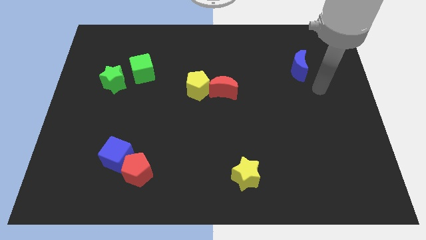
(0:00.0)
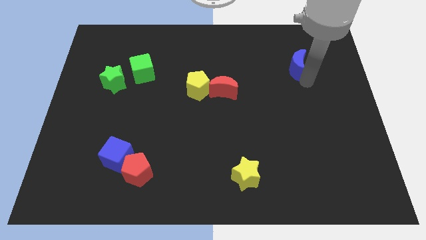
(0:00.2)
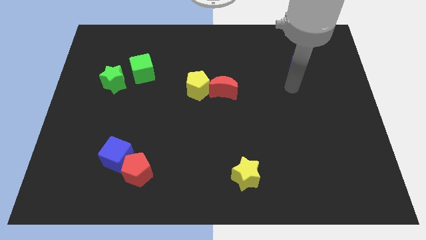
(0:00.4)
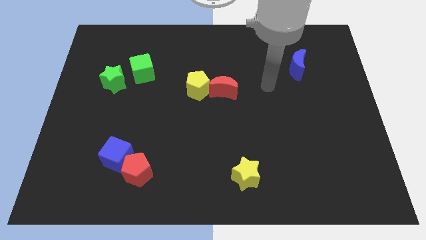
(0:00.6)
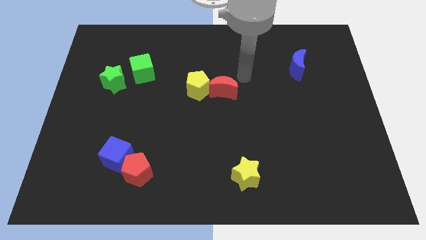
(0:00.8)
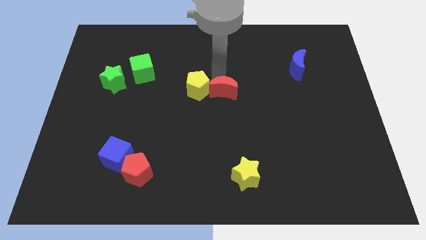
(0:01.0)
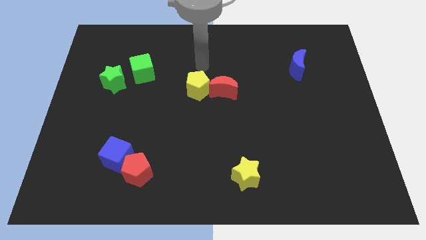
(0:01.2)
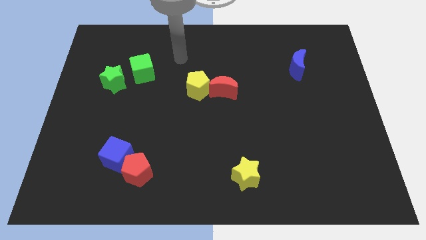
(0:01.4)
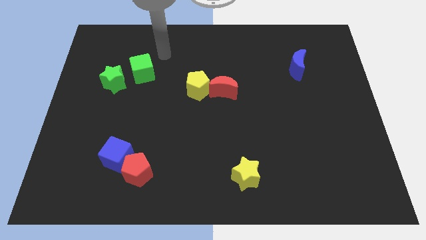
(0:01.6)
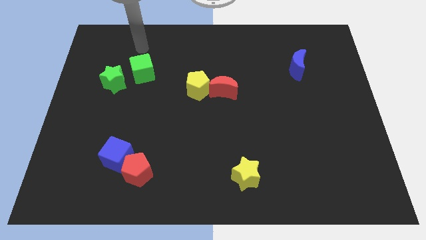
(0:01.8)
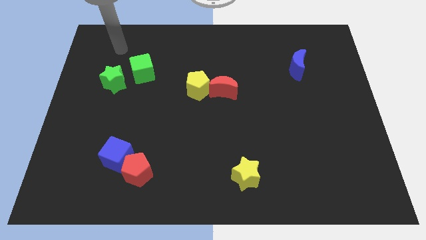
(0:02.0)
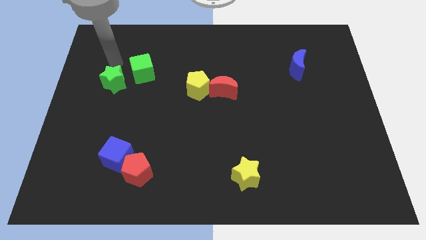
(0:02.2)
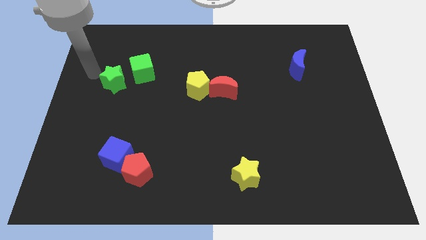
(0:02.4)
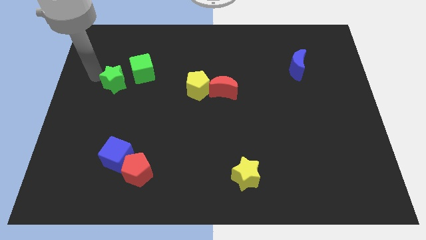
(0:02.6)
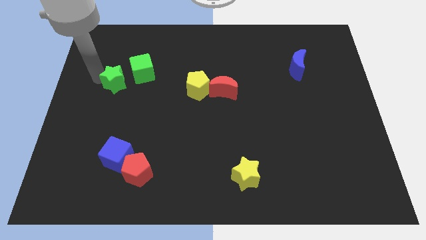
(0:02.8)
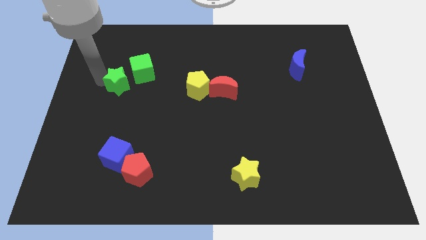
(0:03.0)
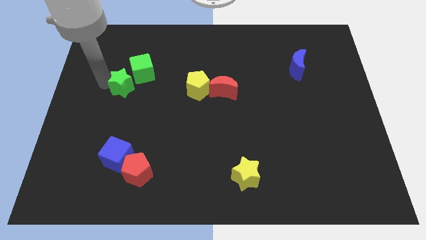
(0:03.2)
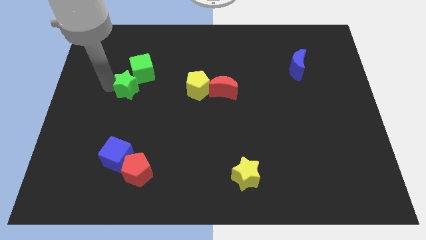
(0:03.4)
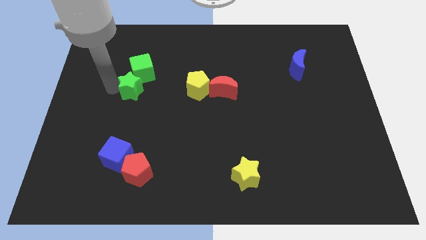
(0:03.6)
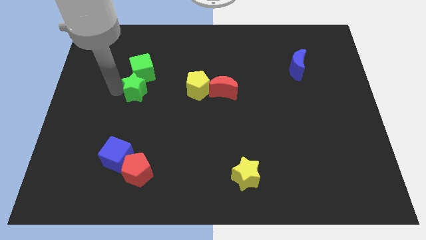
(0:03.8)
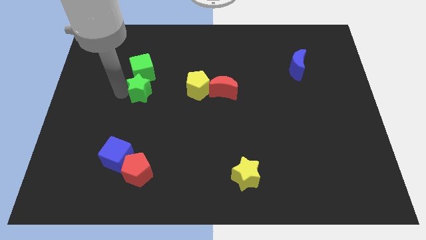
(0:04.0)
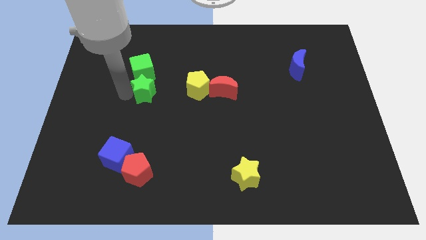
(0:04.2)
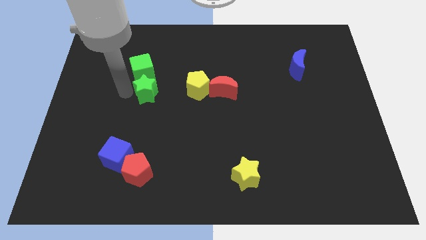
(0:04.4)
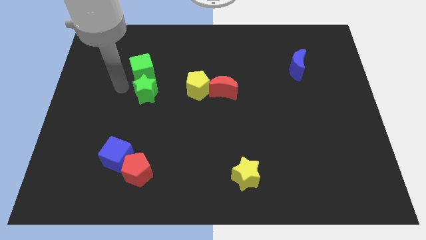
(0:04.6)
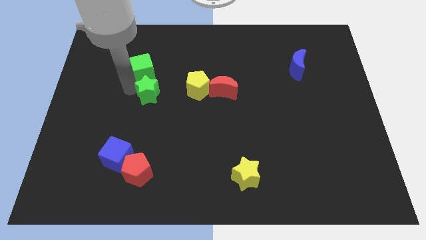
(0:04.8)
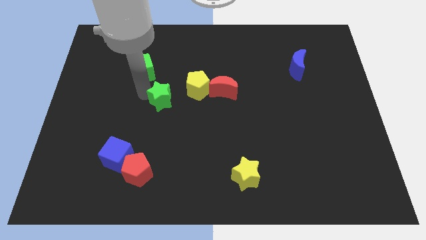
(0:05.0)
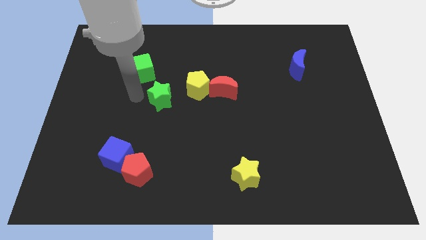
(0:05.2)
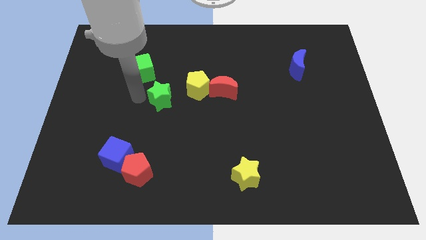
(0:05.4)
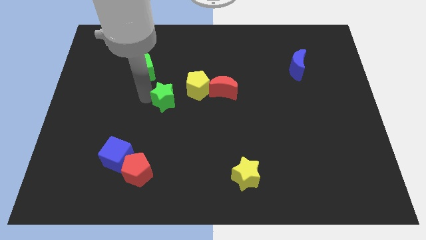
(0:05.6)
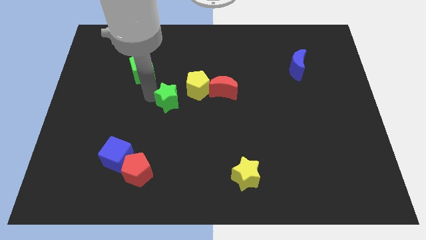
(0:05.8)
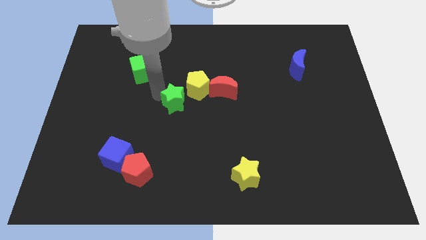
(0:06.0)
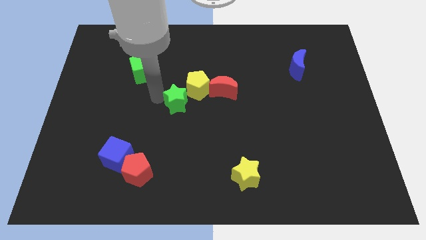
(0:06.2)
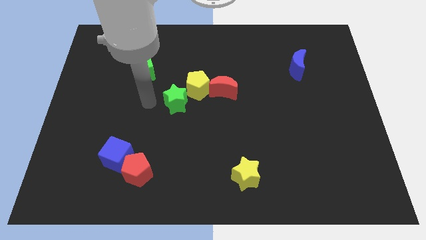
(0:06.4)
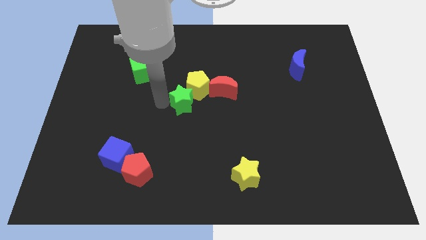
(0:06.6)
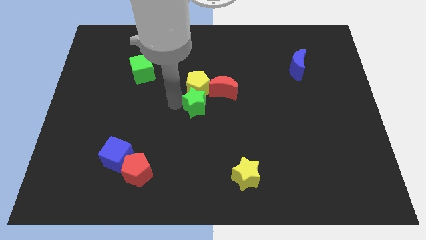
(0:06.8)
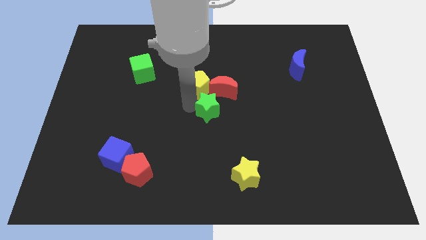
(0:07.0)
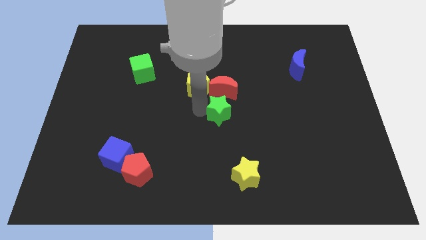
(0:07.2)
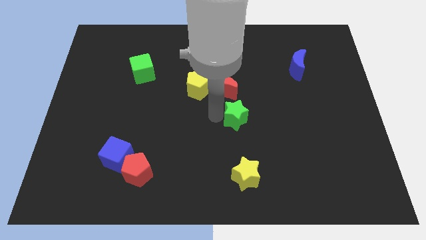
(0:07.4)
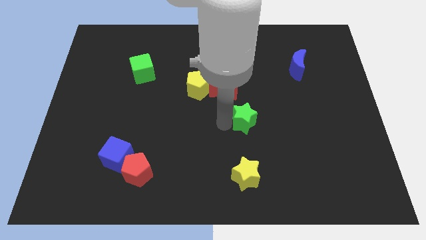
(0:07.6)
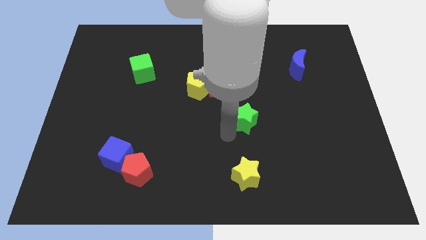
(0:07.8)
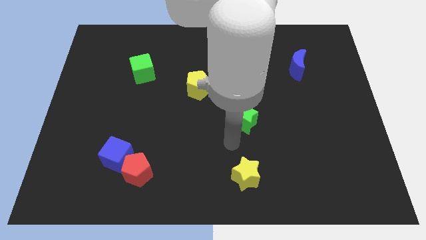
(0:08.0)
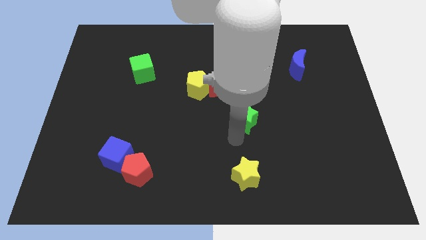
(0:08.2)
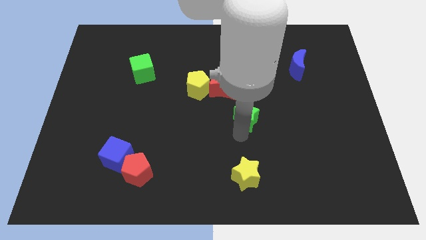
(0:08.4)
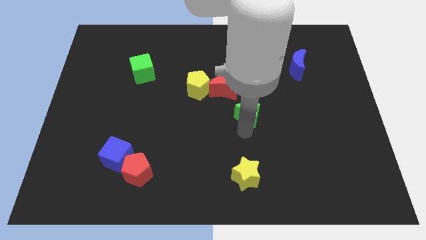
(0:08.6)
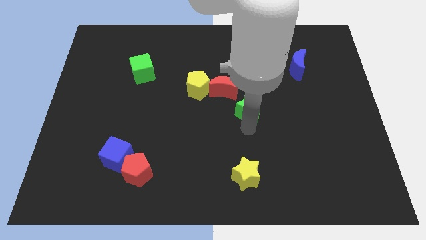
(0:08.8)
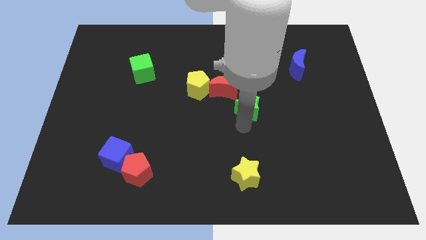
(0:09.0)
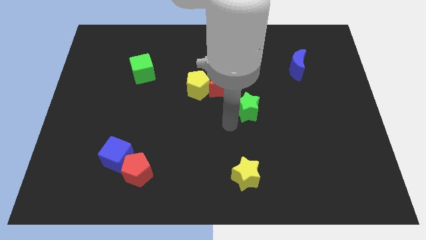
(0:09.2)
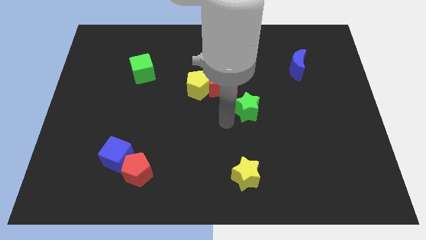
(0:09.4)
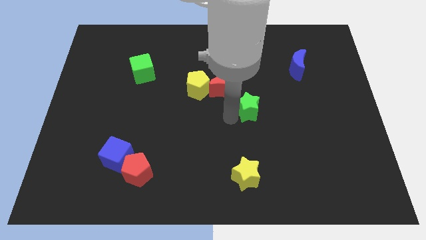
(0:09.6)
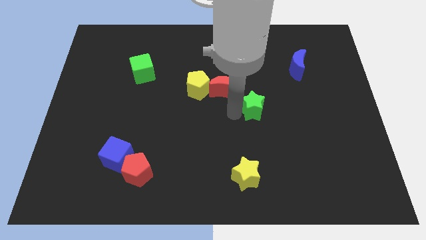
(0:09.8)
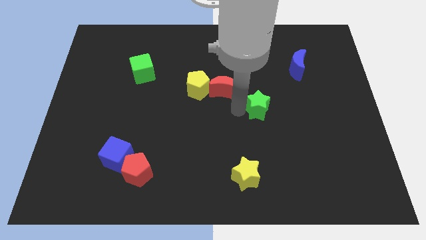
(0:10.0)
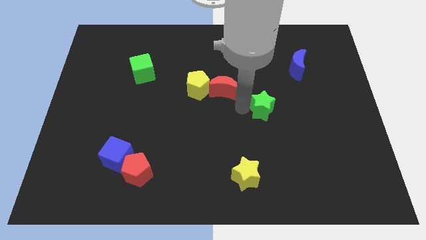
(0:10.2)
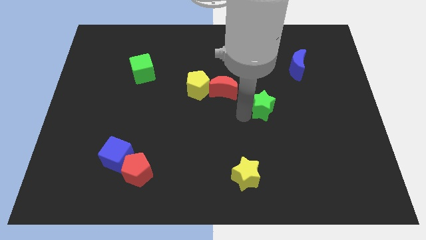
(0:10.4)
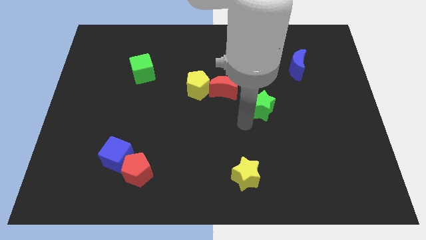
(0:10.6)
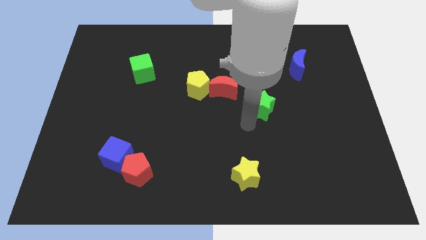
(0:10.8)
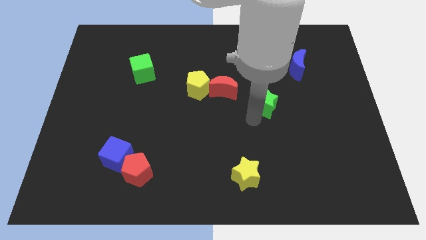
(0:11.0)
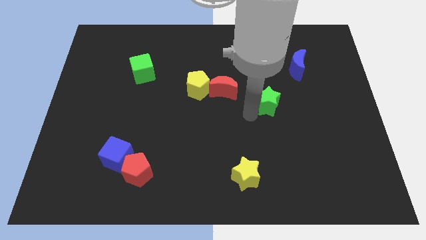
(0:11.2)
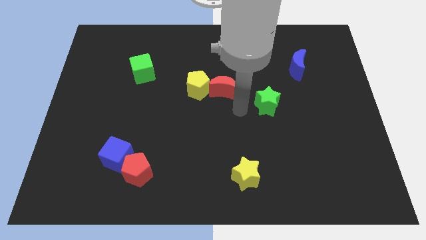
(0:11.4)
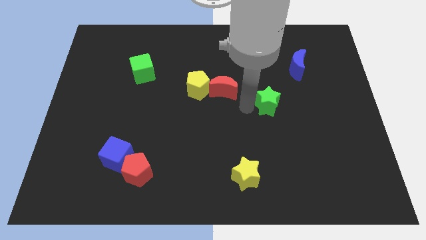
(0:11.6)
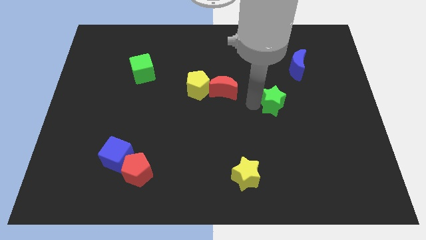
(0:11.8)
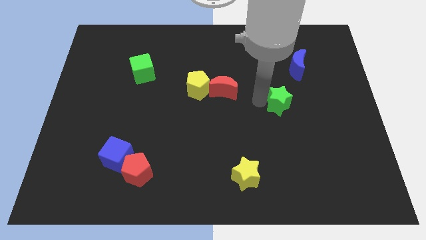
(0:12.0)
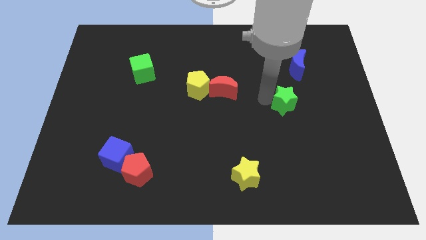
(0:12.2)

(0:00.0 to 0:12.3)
push the green star to the bottom side of the blue moon
